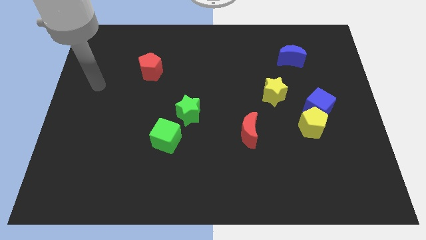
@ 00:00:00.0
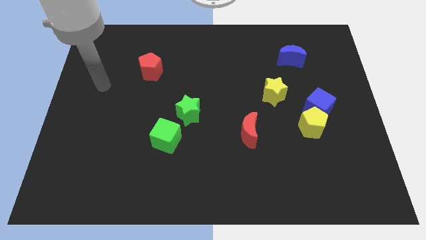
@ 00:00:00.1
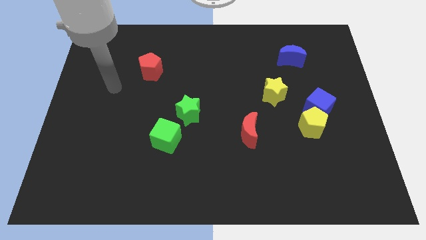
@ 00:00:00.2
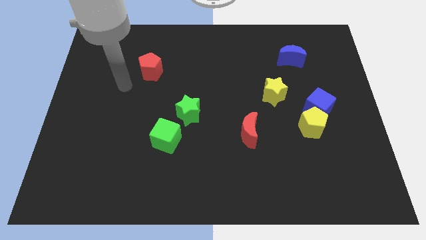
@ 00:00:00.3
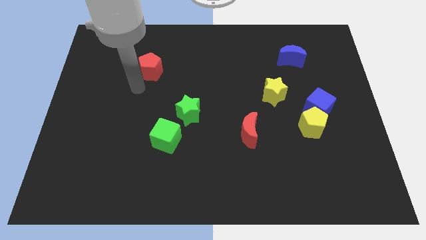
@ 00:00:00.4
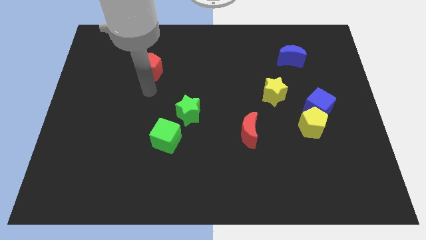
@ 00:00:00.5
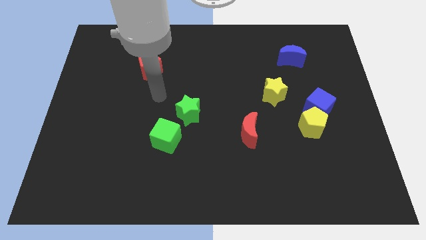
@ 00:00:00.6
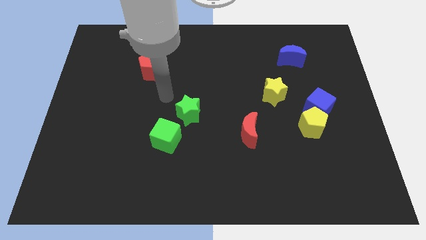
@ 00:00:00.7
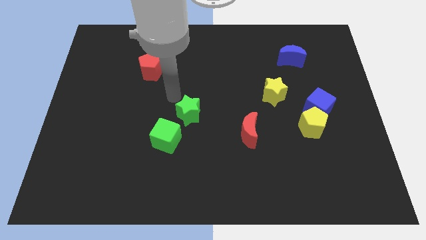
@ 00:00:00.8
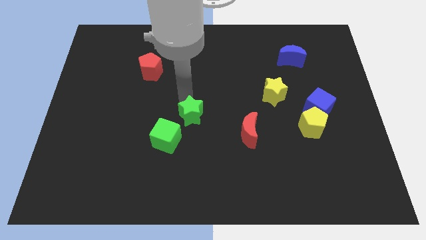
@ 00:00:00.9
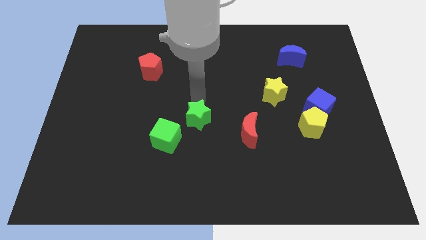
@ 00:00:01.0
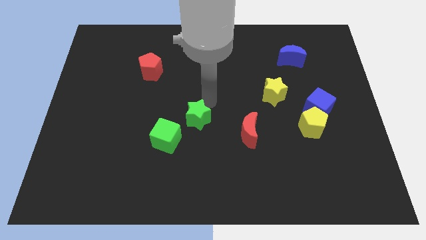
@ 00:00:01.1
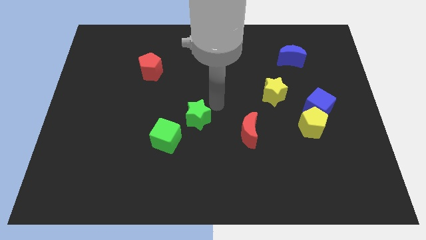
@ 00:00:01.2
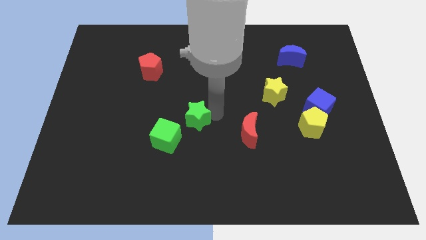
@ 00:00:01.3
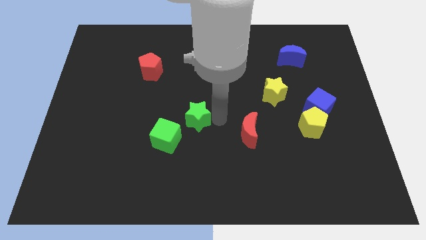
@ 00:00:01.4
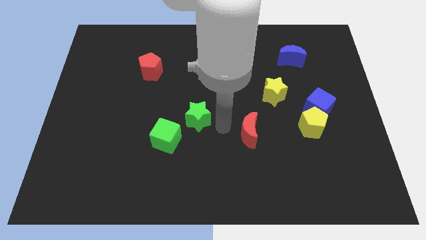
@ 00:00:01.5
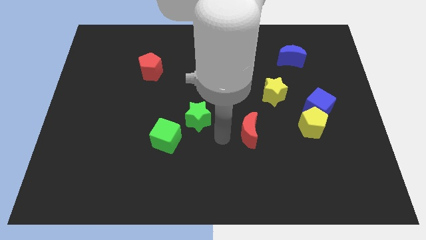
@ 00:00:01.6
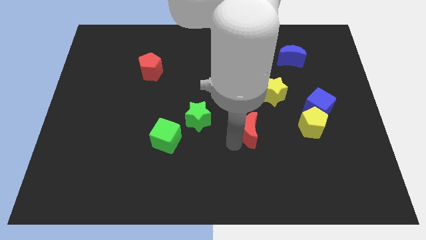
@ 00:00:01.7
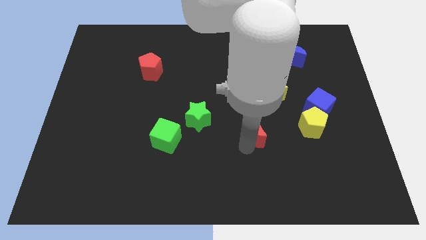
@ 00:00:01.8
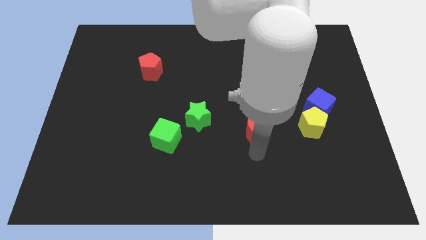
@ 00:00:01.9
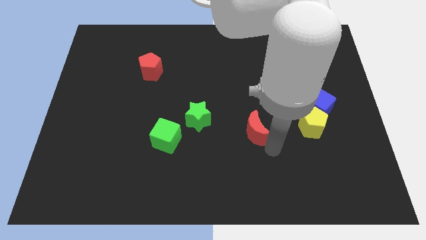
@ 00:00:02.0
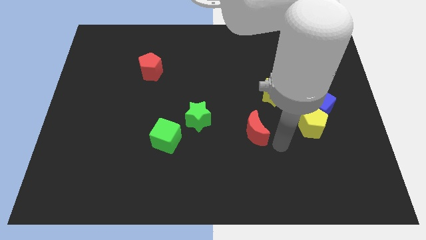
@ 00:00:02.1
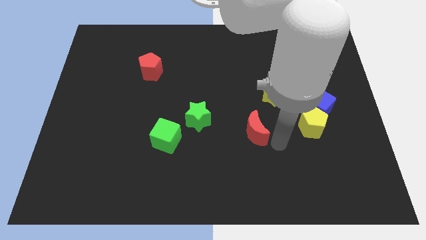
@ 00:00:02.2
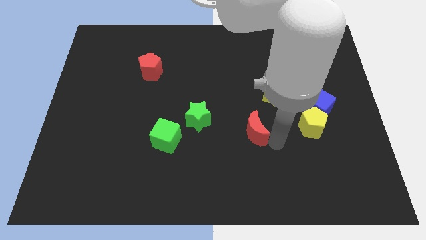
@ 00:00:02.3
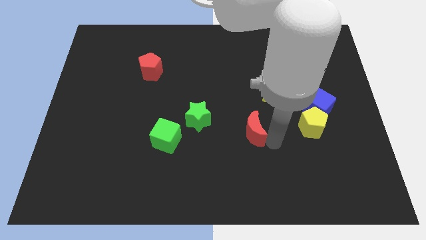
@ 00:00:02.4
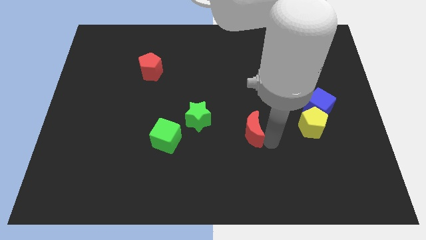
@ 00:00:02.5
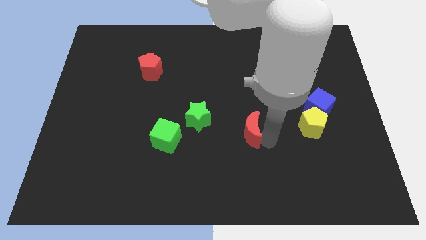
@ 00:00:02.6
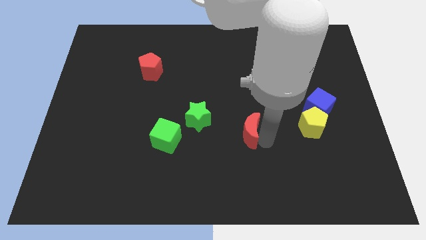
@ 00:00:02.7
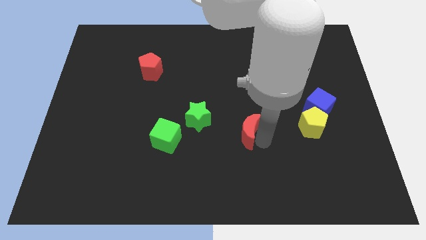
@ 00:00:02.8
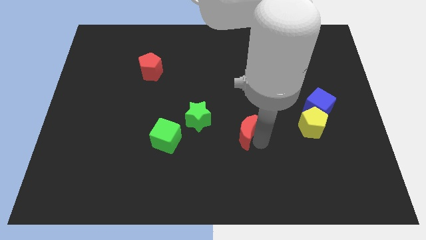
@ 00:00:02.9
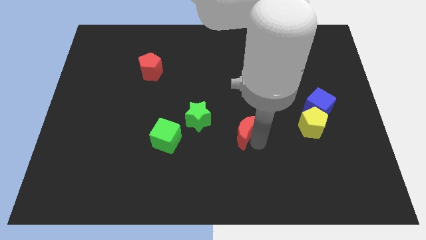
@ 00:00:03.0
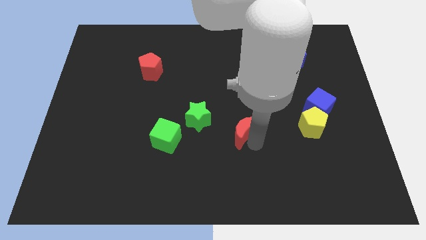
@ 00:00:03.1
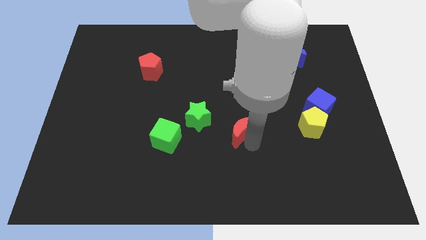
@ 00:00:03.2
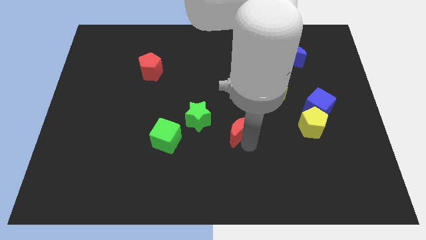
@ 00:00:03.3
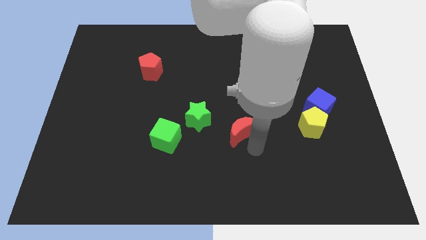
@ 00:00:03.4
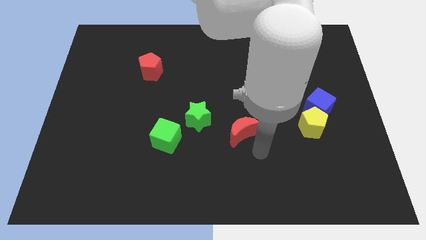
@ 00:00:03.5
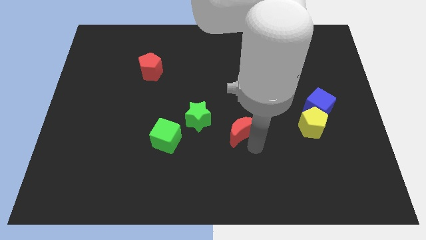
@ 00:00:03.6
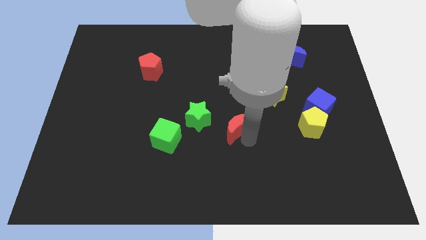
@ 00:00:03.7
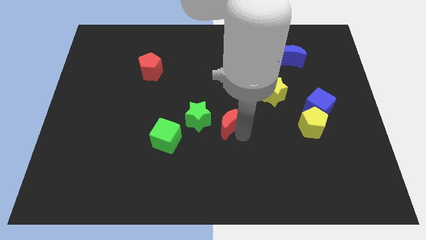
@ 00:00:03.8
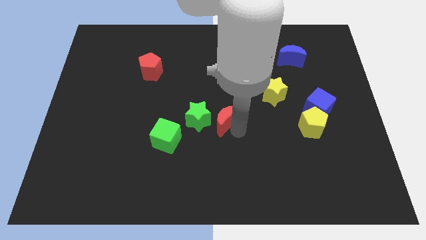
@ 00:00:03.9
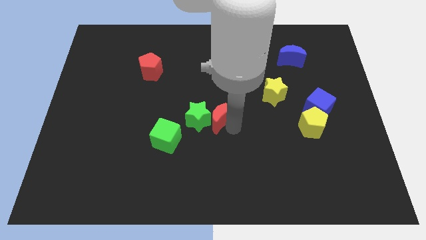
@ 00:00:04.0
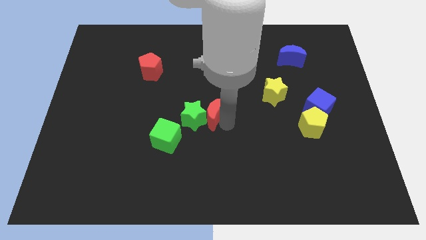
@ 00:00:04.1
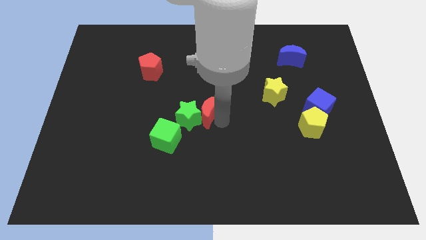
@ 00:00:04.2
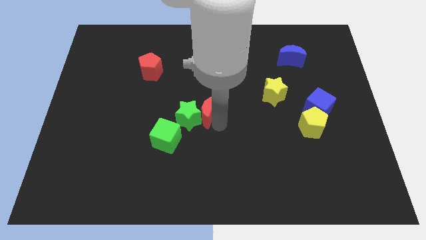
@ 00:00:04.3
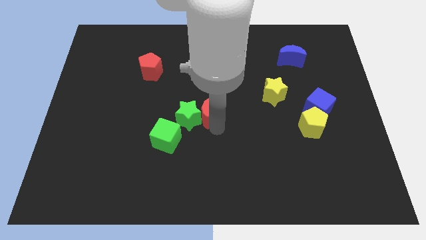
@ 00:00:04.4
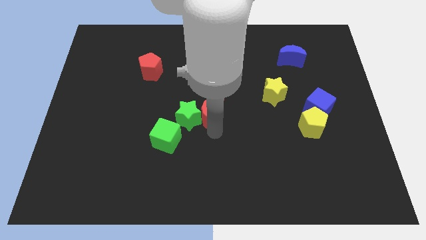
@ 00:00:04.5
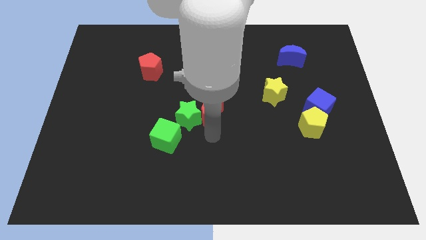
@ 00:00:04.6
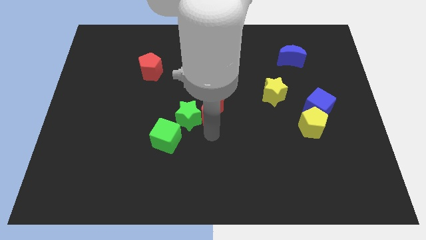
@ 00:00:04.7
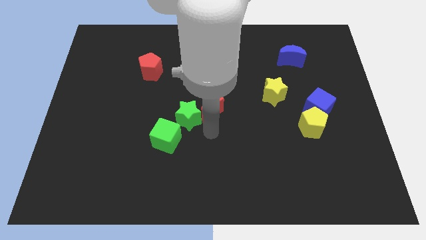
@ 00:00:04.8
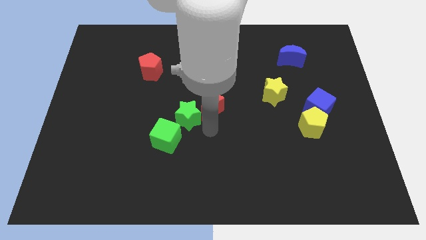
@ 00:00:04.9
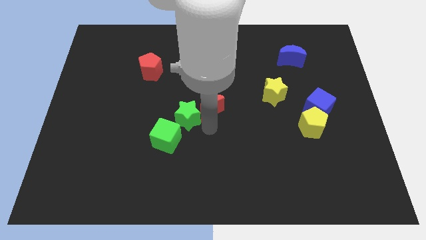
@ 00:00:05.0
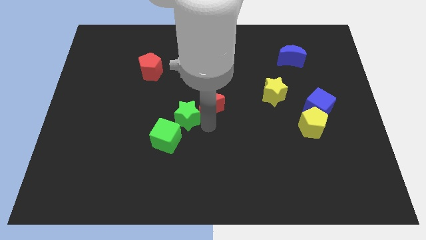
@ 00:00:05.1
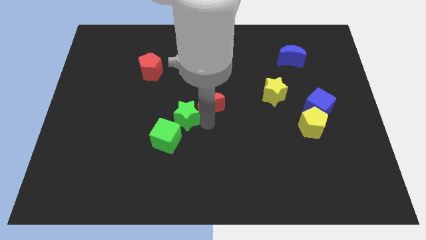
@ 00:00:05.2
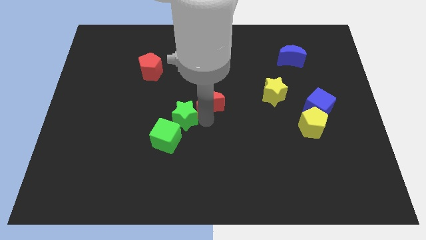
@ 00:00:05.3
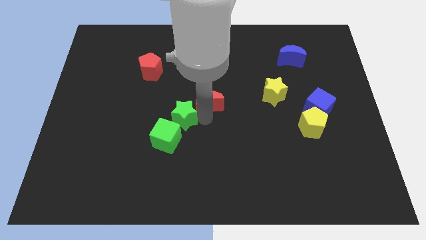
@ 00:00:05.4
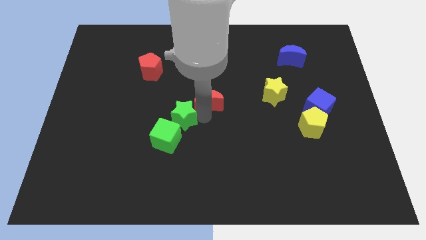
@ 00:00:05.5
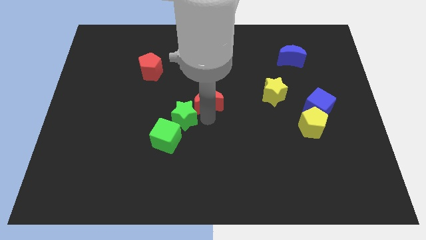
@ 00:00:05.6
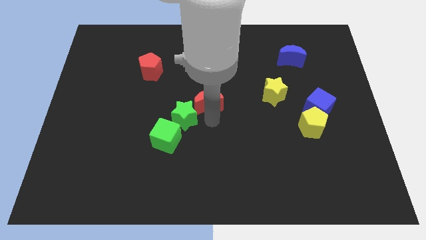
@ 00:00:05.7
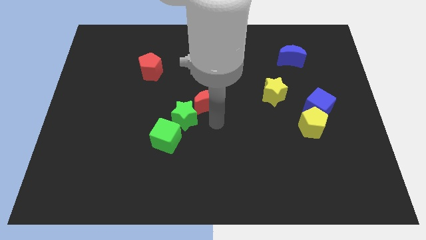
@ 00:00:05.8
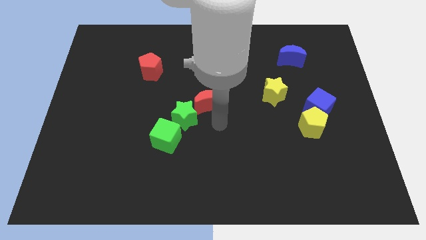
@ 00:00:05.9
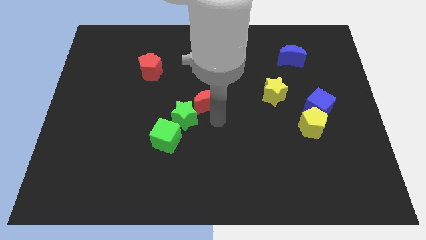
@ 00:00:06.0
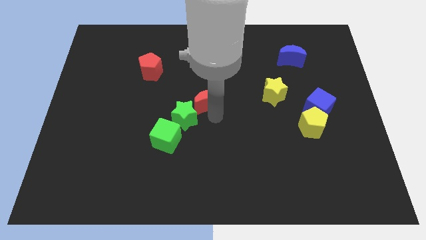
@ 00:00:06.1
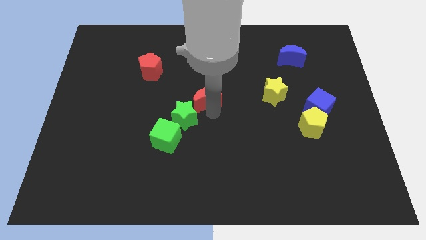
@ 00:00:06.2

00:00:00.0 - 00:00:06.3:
move the red moon above the green star

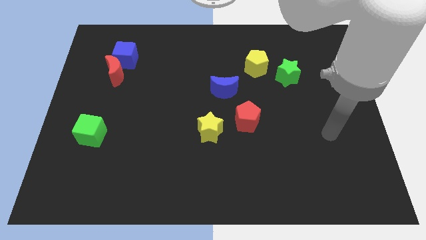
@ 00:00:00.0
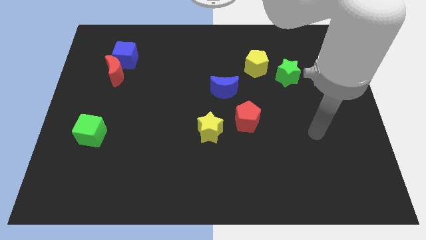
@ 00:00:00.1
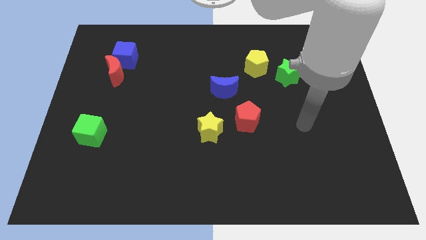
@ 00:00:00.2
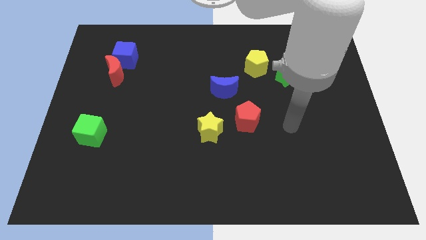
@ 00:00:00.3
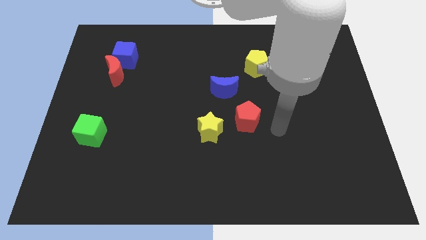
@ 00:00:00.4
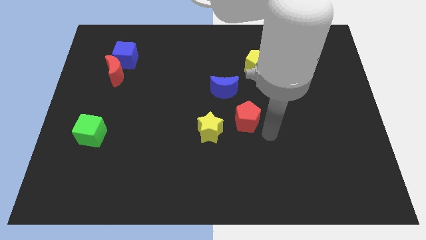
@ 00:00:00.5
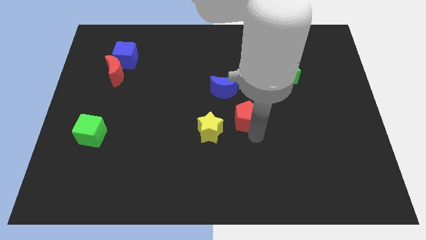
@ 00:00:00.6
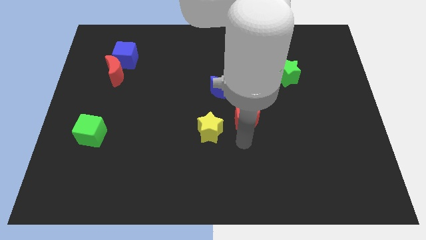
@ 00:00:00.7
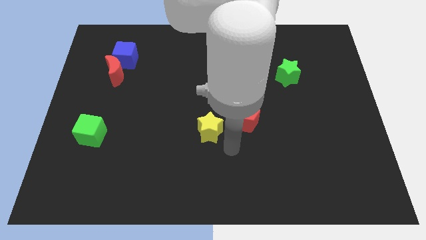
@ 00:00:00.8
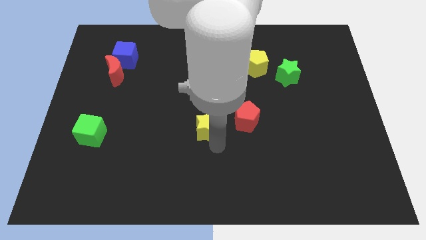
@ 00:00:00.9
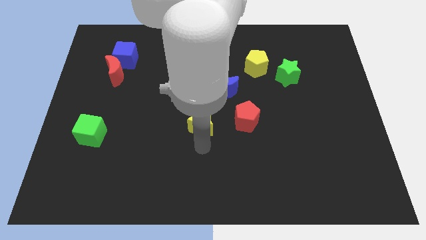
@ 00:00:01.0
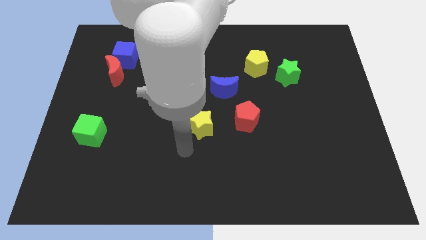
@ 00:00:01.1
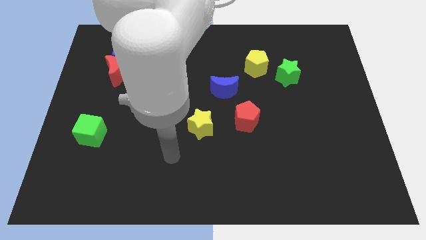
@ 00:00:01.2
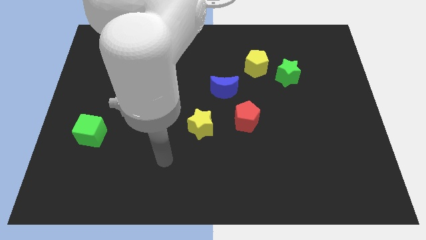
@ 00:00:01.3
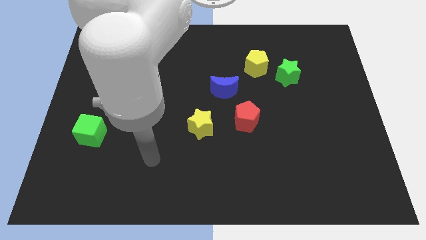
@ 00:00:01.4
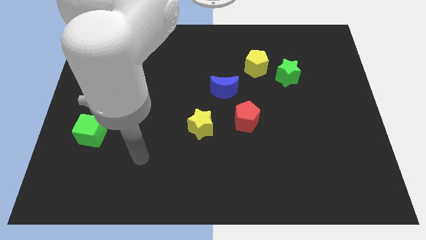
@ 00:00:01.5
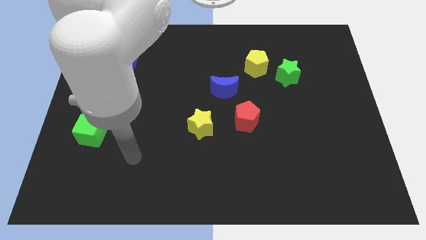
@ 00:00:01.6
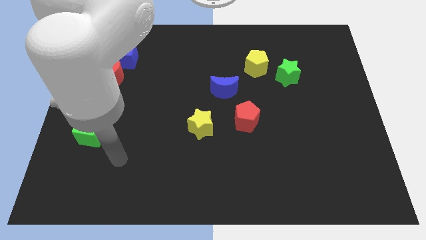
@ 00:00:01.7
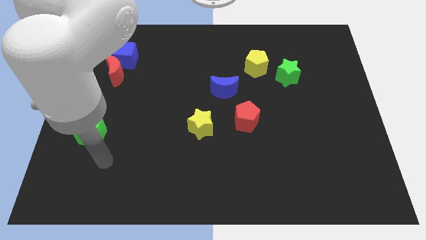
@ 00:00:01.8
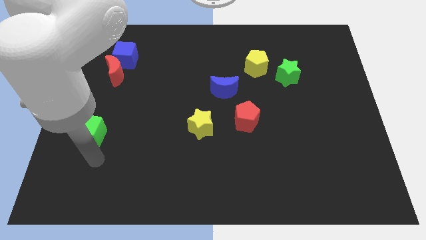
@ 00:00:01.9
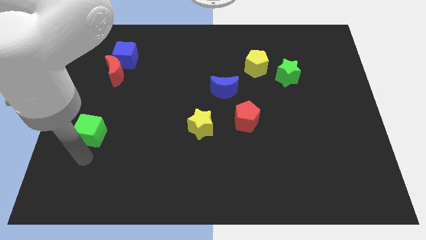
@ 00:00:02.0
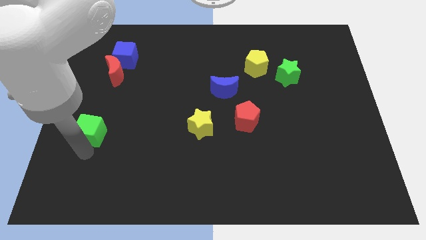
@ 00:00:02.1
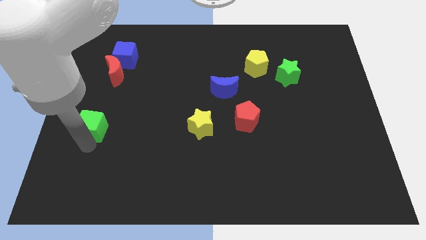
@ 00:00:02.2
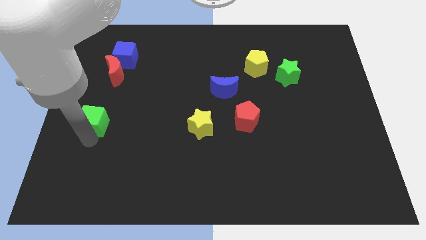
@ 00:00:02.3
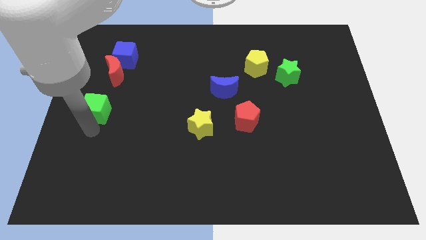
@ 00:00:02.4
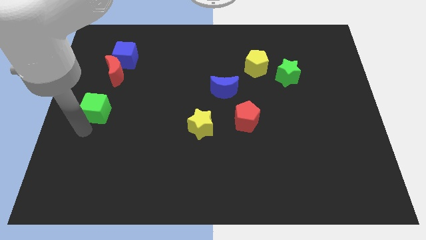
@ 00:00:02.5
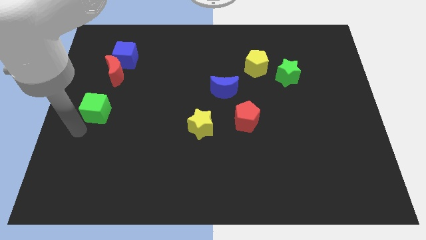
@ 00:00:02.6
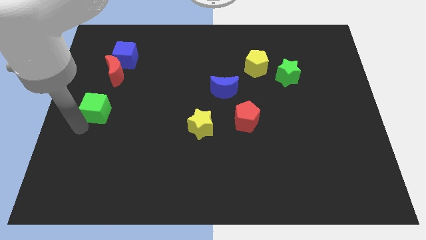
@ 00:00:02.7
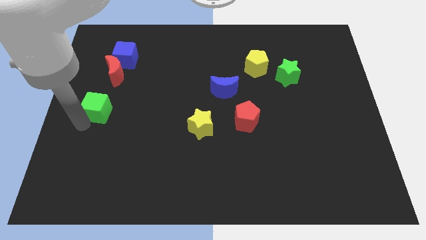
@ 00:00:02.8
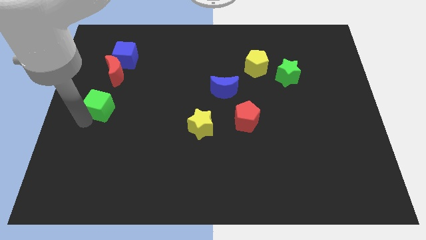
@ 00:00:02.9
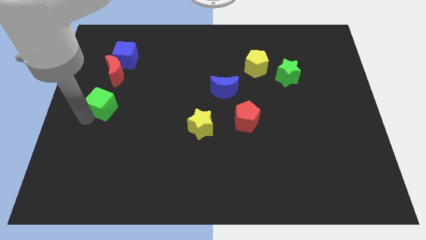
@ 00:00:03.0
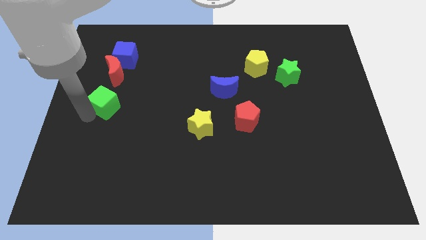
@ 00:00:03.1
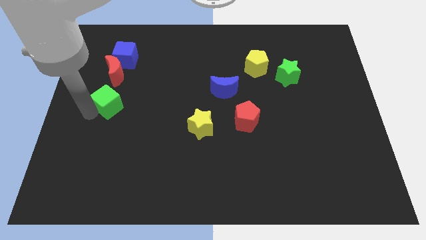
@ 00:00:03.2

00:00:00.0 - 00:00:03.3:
put the green cube below the blue cube
